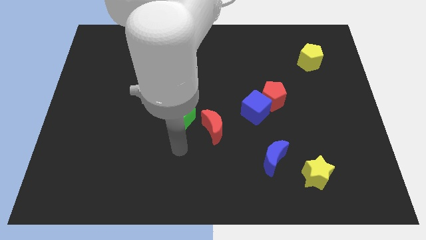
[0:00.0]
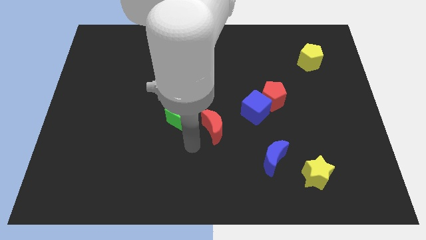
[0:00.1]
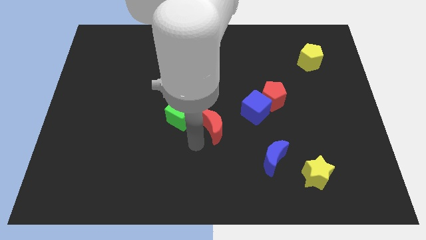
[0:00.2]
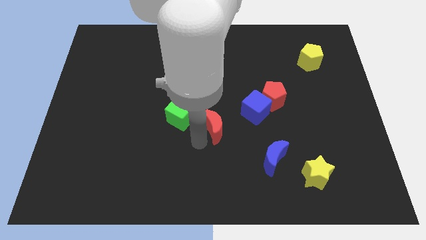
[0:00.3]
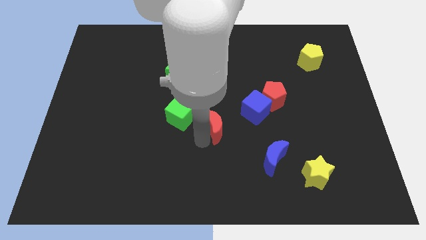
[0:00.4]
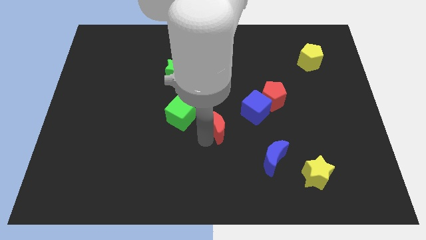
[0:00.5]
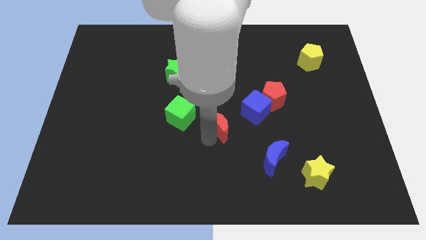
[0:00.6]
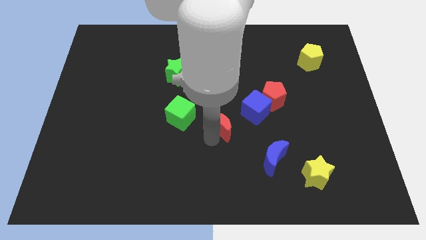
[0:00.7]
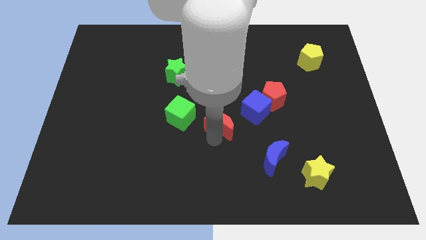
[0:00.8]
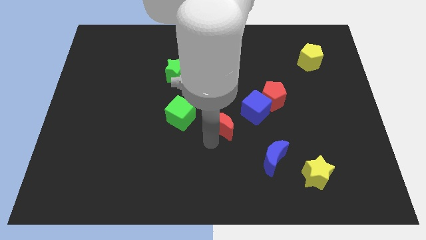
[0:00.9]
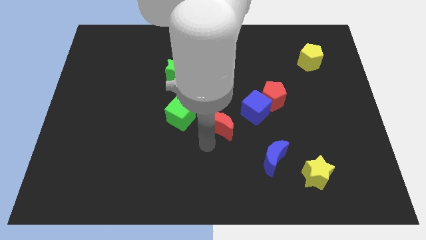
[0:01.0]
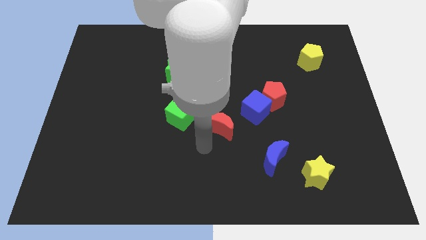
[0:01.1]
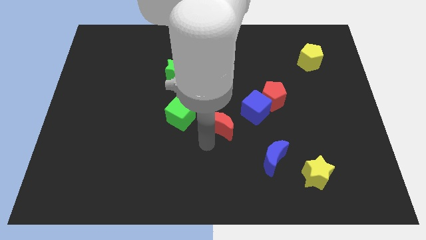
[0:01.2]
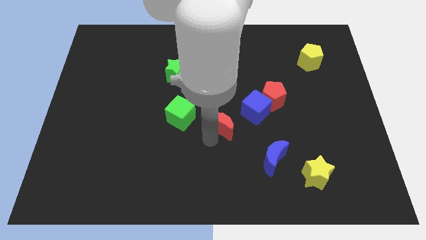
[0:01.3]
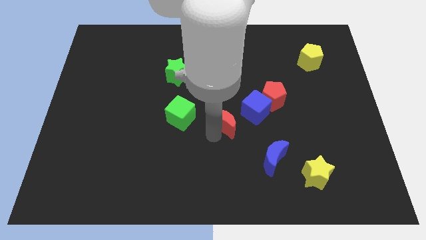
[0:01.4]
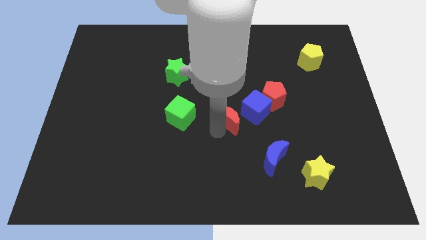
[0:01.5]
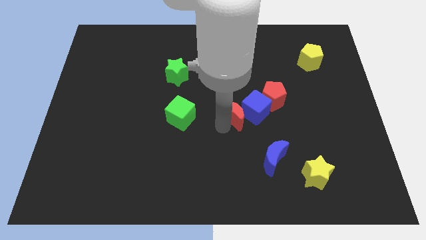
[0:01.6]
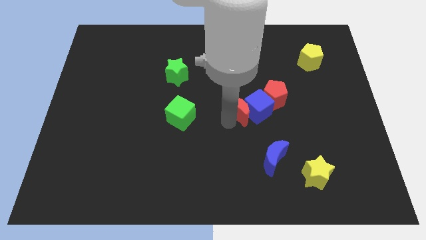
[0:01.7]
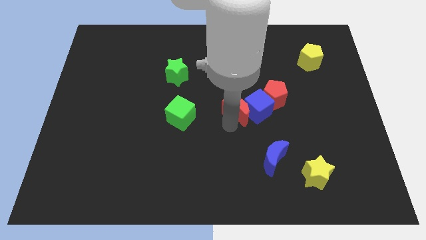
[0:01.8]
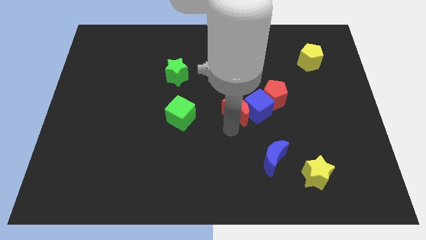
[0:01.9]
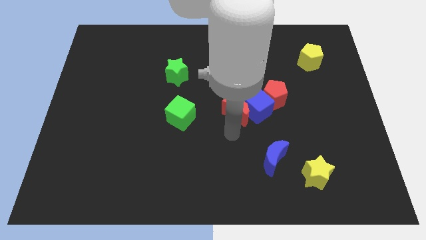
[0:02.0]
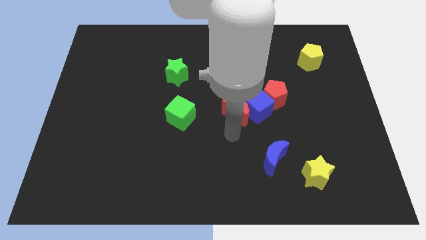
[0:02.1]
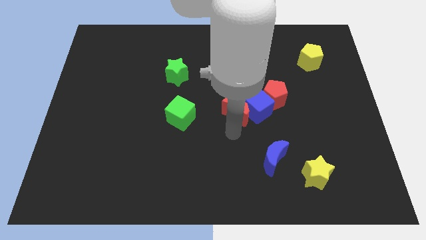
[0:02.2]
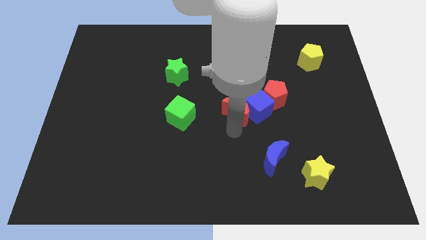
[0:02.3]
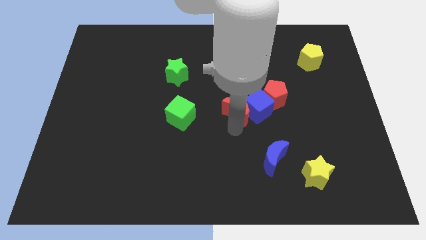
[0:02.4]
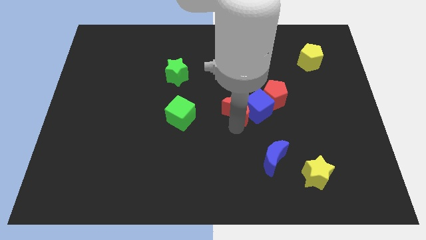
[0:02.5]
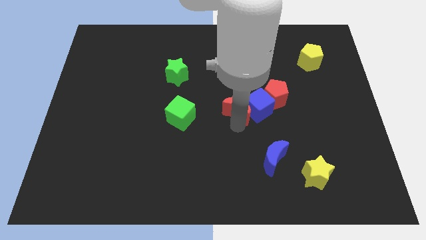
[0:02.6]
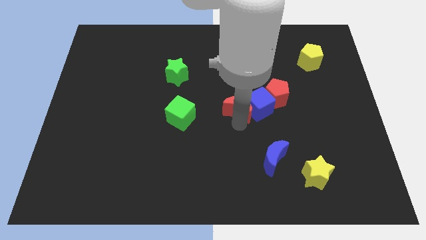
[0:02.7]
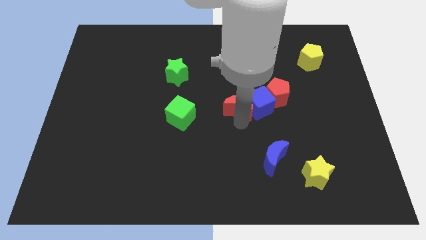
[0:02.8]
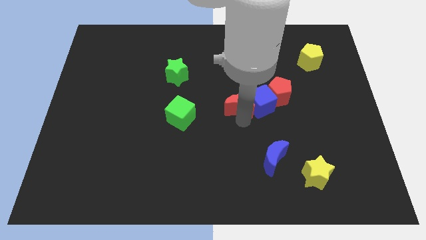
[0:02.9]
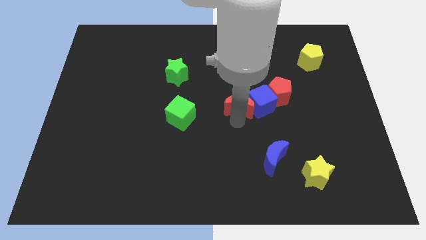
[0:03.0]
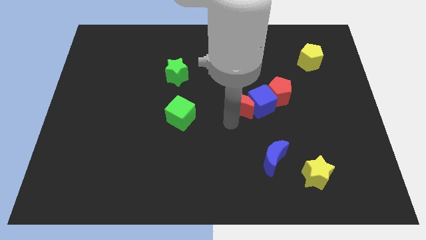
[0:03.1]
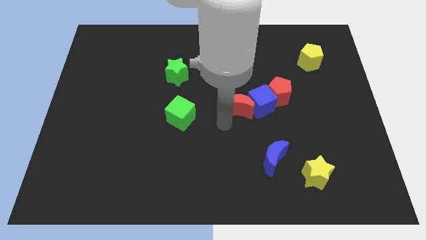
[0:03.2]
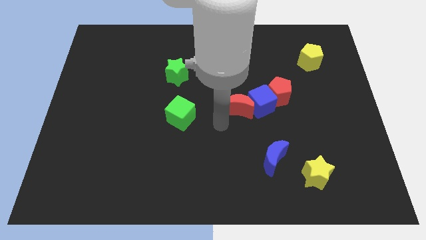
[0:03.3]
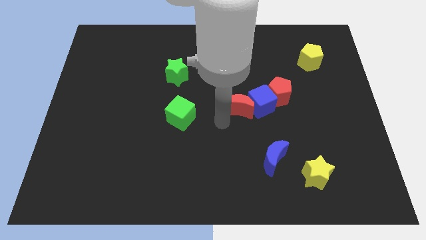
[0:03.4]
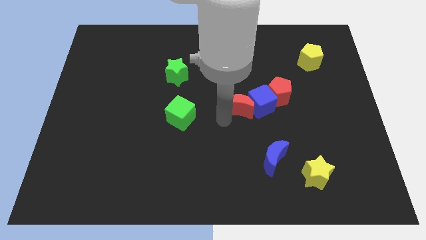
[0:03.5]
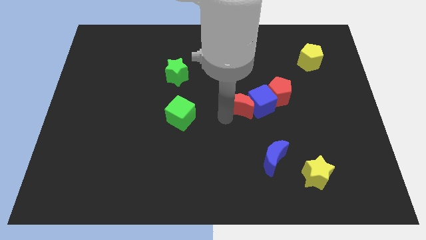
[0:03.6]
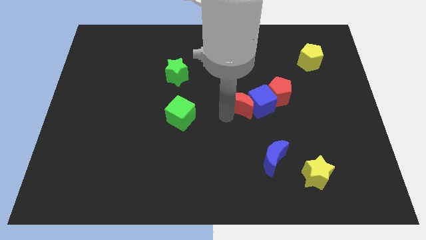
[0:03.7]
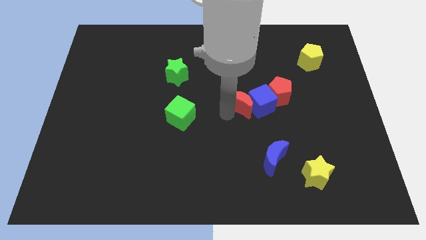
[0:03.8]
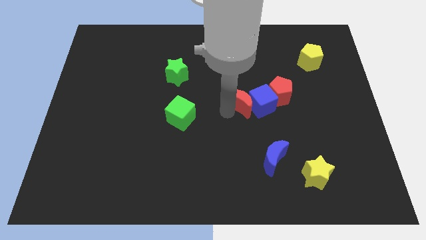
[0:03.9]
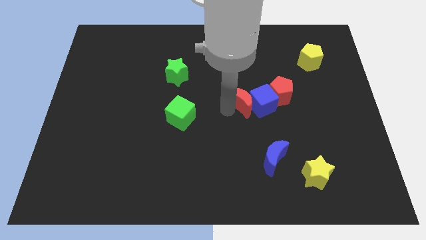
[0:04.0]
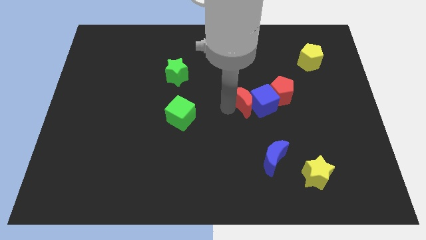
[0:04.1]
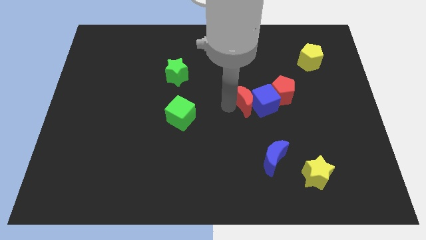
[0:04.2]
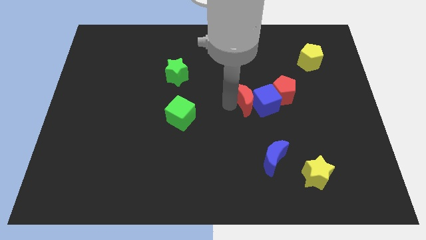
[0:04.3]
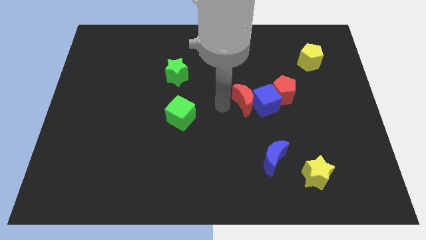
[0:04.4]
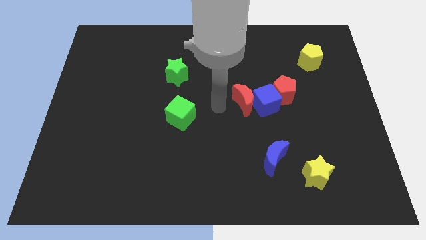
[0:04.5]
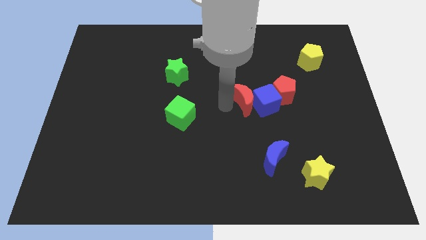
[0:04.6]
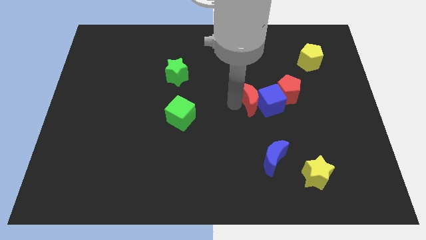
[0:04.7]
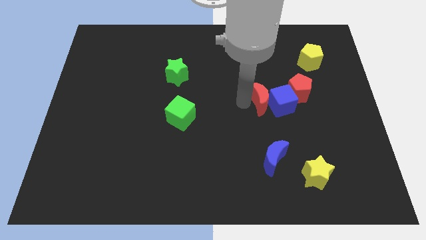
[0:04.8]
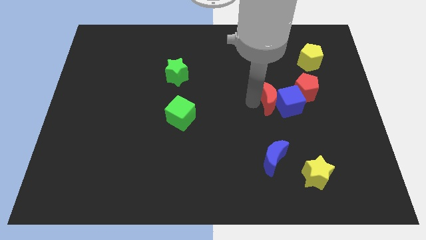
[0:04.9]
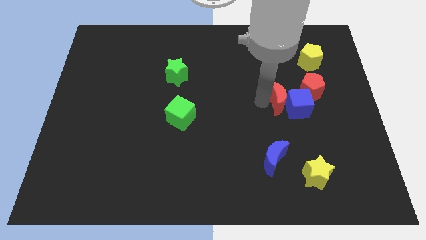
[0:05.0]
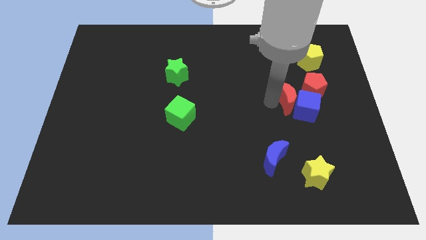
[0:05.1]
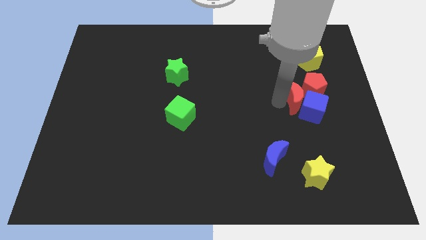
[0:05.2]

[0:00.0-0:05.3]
put the red moon close to the red pentagon

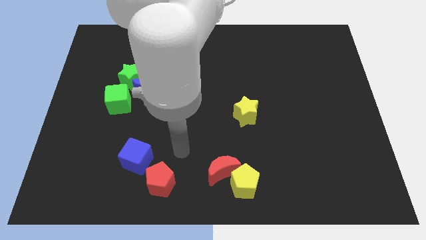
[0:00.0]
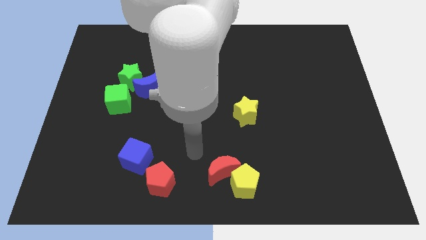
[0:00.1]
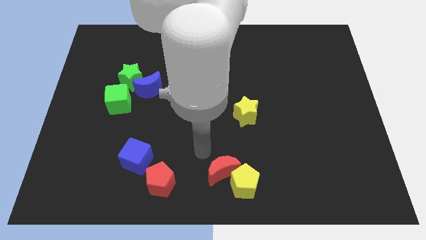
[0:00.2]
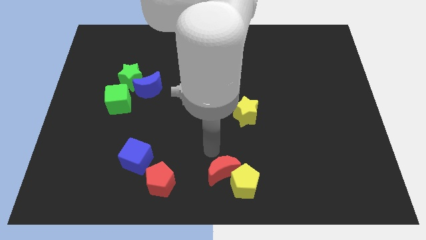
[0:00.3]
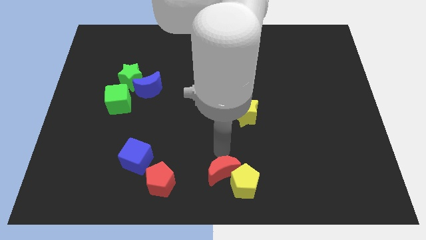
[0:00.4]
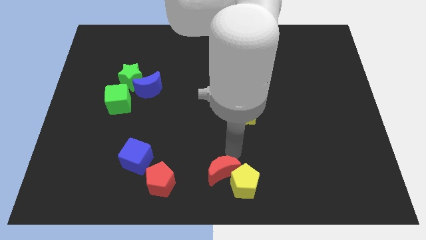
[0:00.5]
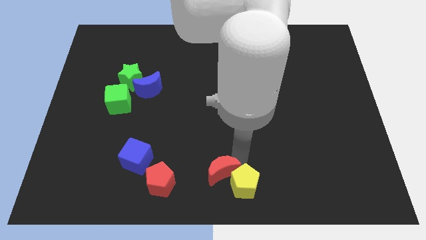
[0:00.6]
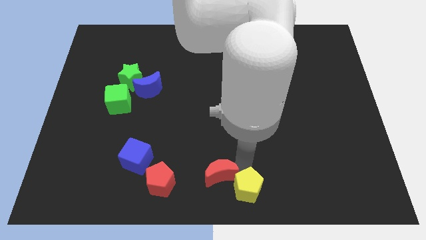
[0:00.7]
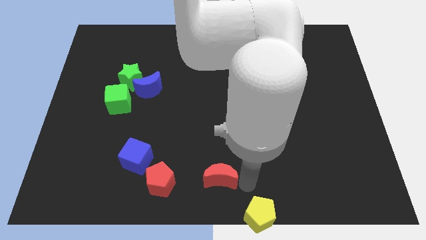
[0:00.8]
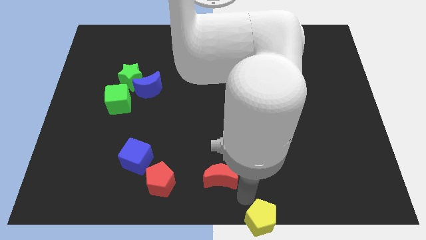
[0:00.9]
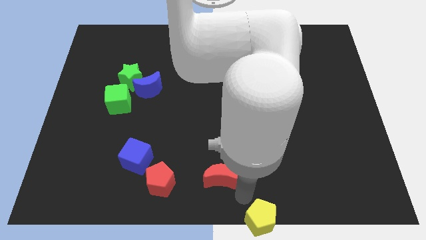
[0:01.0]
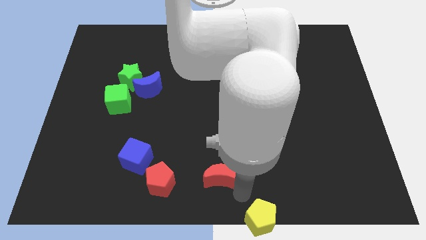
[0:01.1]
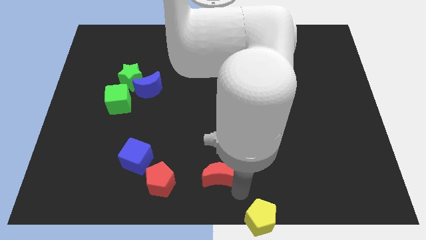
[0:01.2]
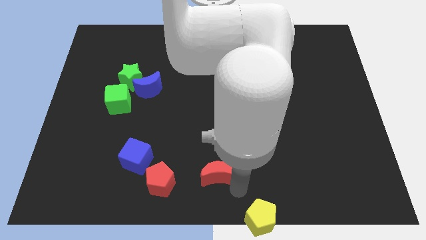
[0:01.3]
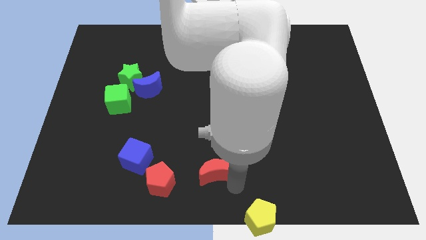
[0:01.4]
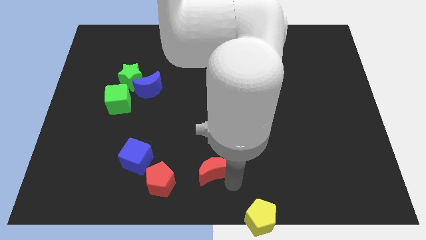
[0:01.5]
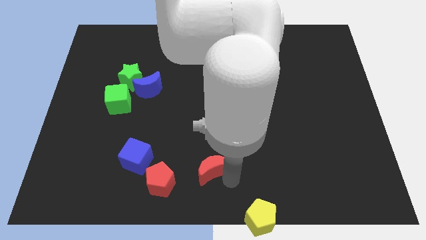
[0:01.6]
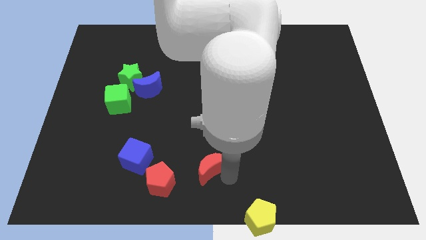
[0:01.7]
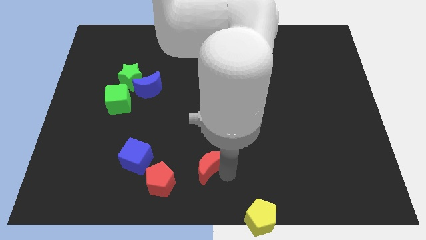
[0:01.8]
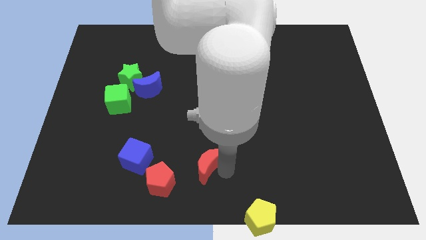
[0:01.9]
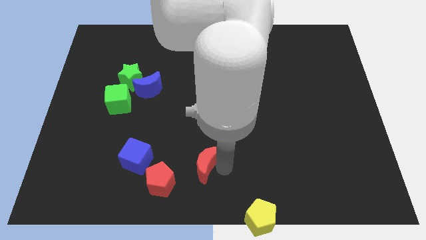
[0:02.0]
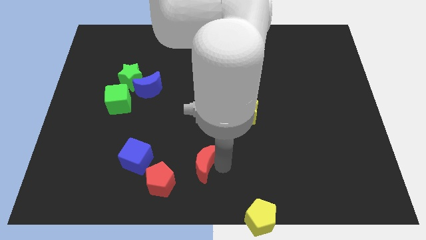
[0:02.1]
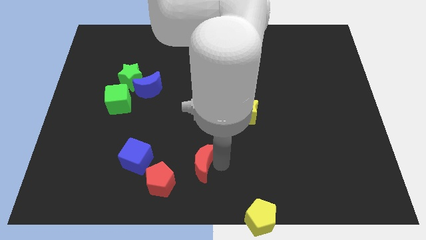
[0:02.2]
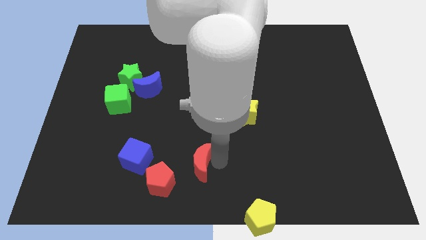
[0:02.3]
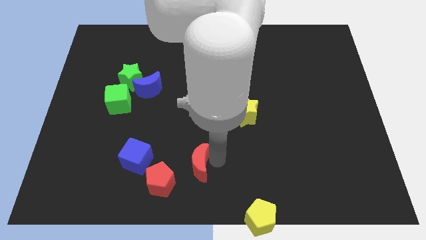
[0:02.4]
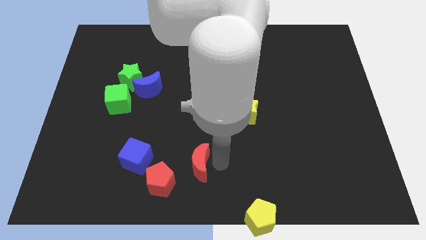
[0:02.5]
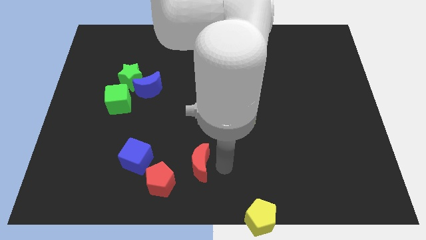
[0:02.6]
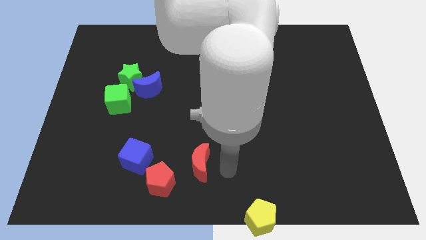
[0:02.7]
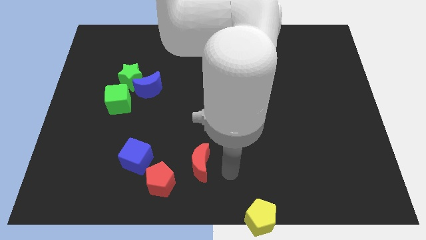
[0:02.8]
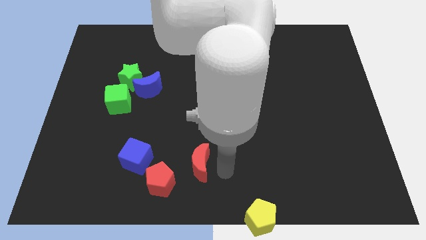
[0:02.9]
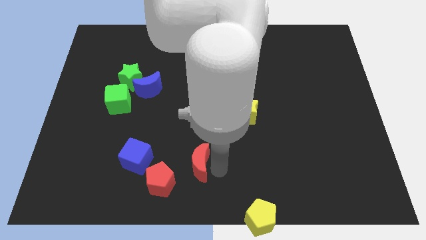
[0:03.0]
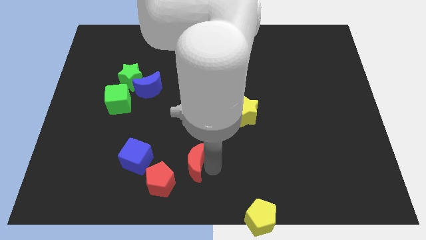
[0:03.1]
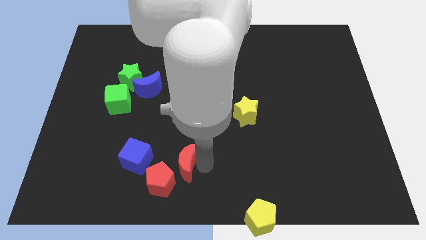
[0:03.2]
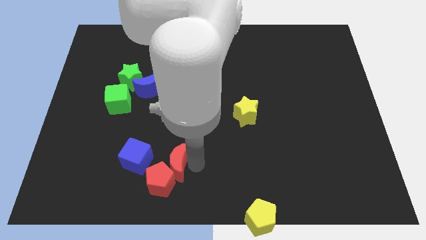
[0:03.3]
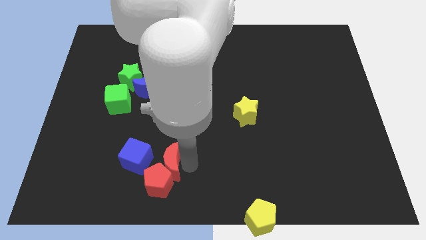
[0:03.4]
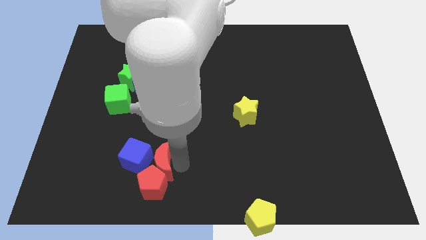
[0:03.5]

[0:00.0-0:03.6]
push the red moon to the blue cube

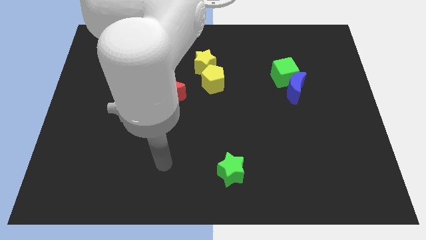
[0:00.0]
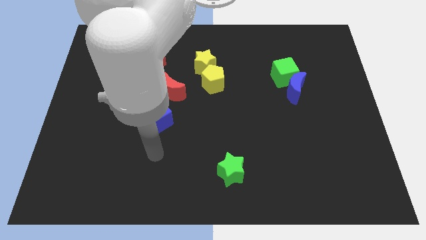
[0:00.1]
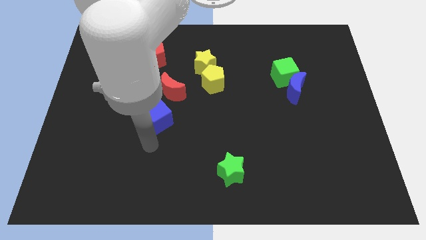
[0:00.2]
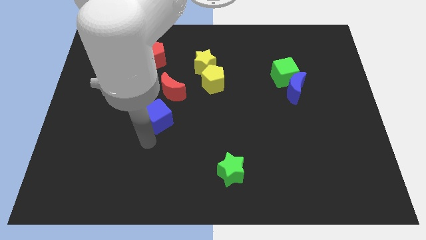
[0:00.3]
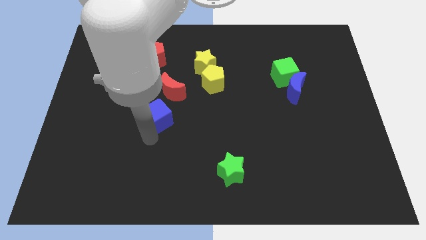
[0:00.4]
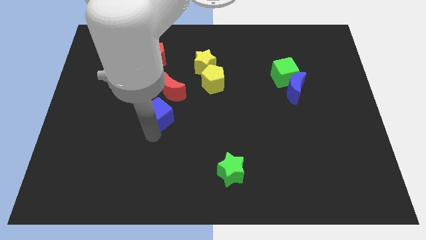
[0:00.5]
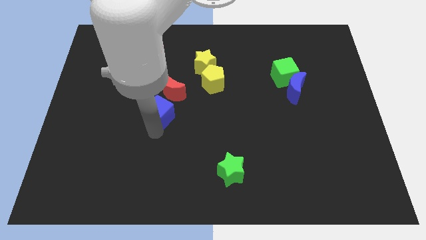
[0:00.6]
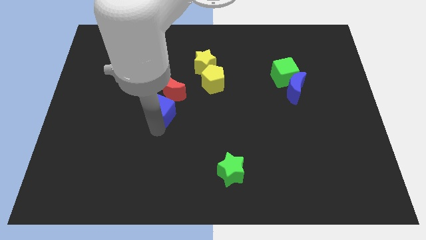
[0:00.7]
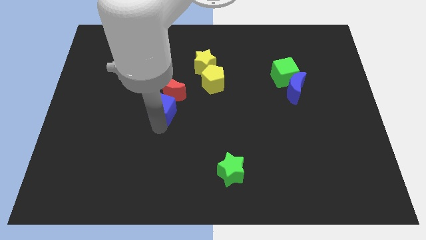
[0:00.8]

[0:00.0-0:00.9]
slide the blue cube close to the red moon
